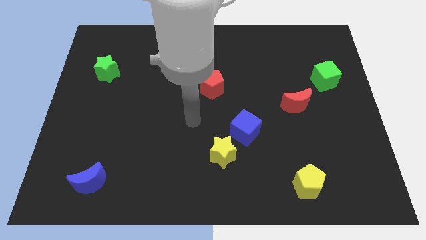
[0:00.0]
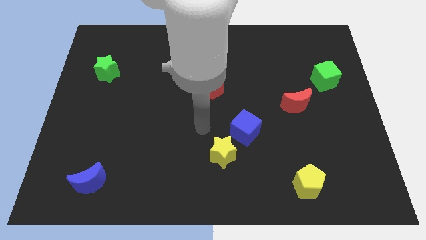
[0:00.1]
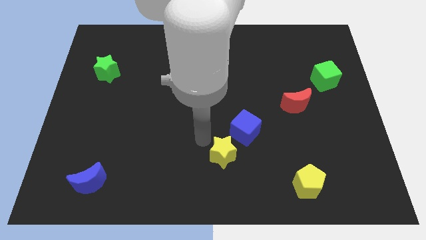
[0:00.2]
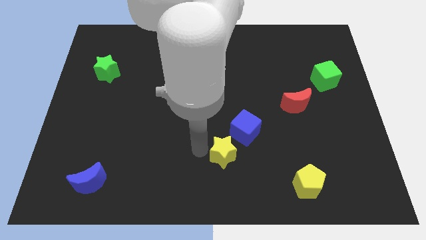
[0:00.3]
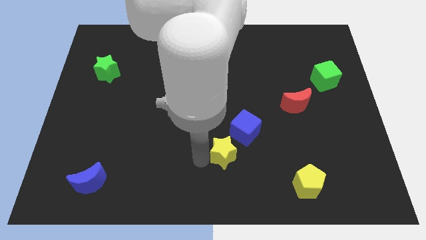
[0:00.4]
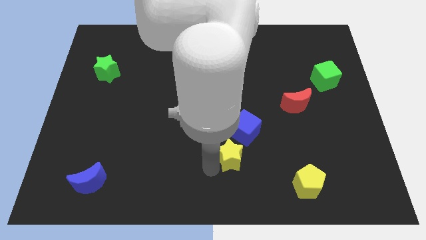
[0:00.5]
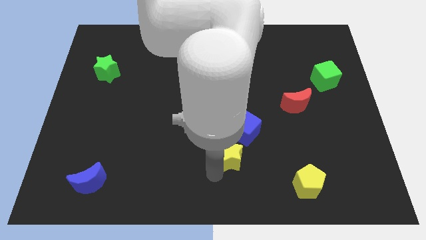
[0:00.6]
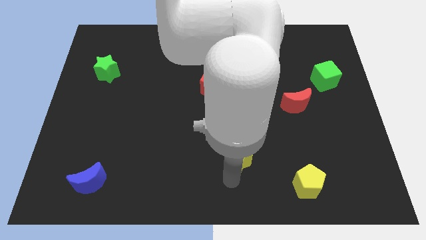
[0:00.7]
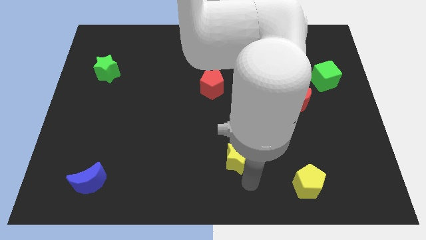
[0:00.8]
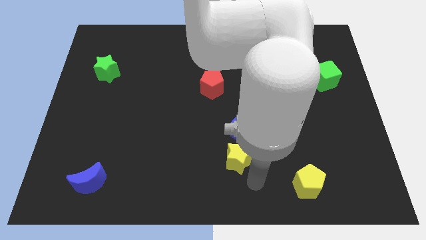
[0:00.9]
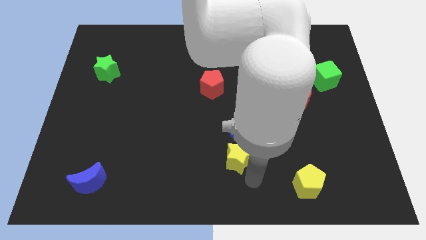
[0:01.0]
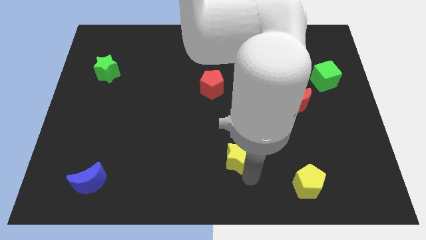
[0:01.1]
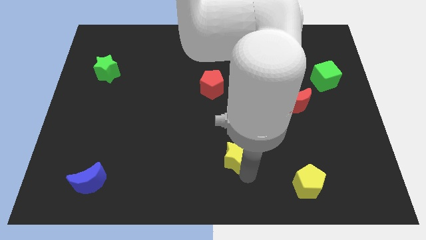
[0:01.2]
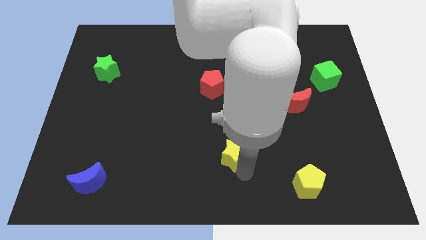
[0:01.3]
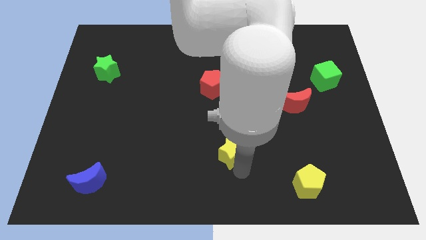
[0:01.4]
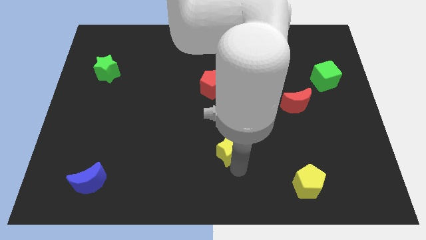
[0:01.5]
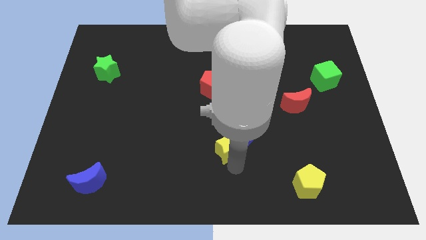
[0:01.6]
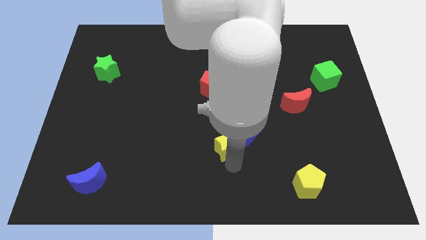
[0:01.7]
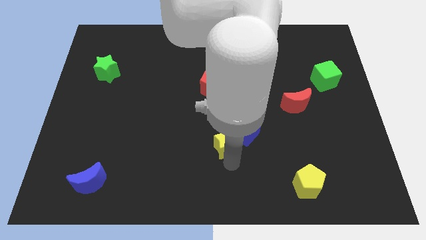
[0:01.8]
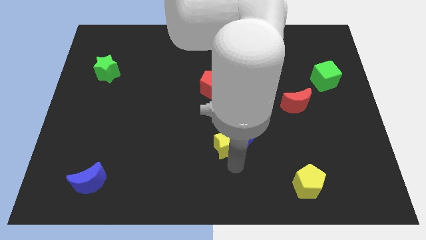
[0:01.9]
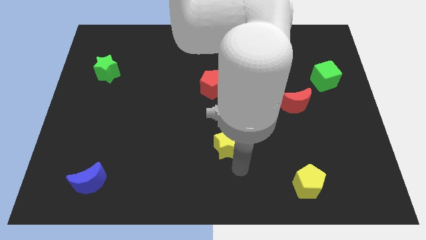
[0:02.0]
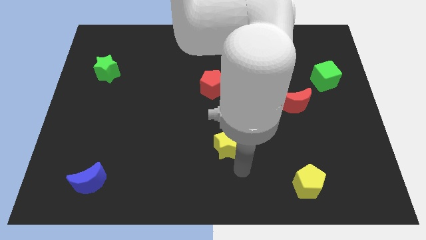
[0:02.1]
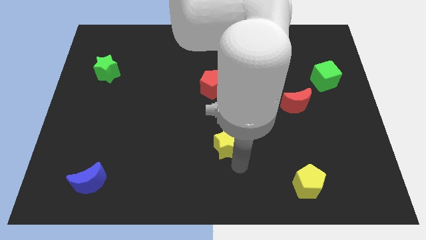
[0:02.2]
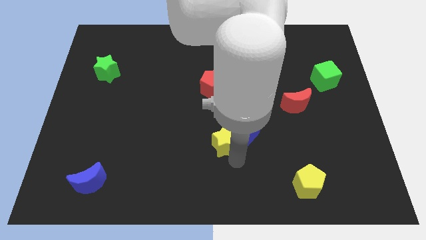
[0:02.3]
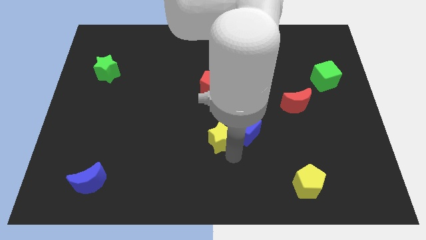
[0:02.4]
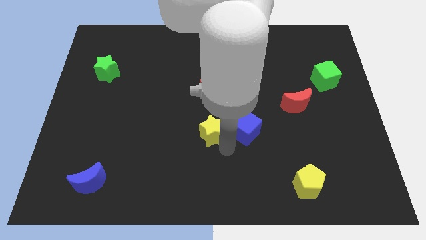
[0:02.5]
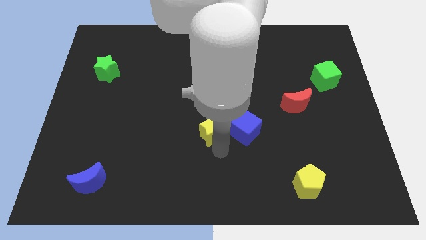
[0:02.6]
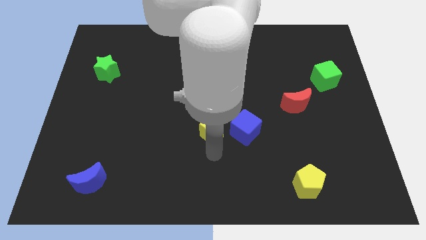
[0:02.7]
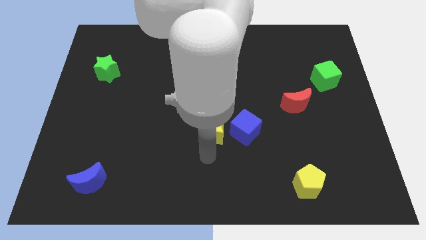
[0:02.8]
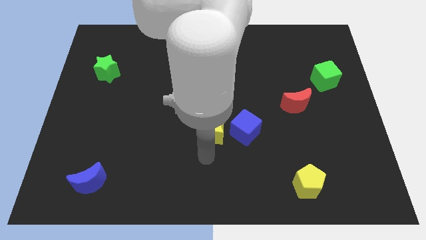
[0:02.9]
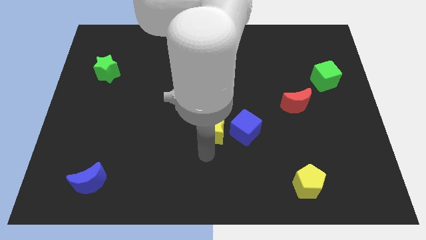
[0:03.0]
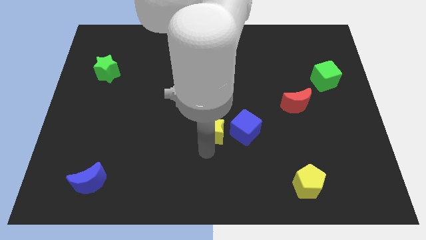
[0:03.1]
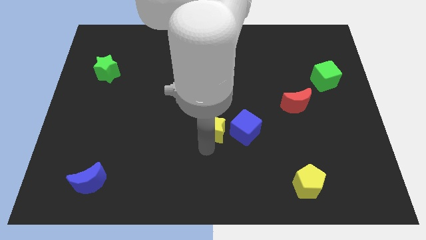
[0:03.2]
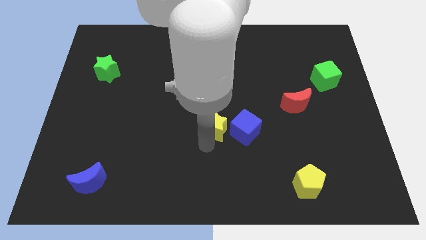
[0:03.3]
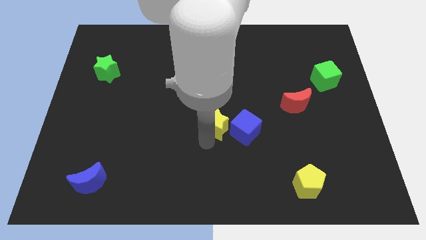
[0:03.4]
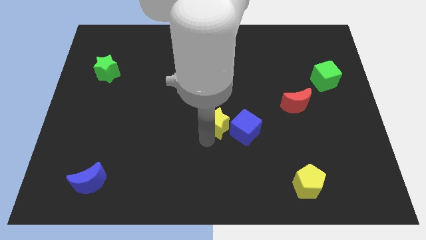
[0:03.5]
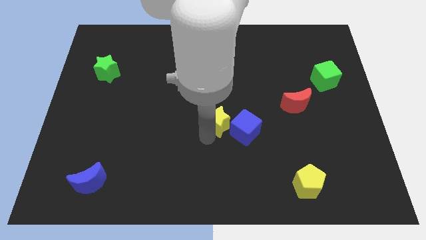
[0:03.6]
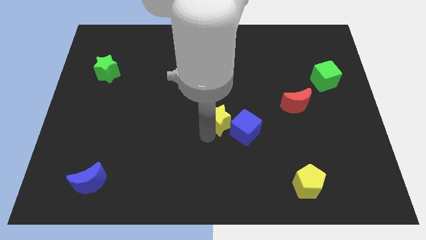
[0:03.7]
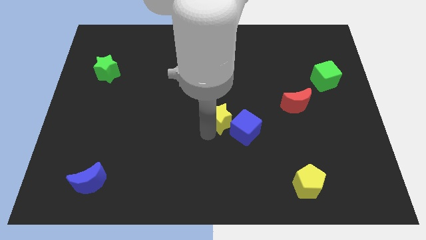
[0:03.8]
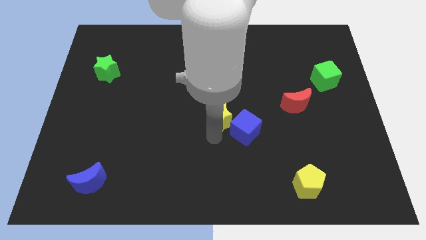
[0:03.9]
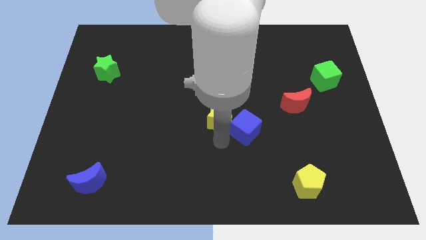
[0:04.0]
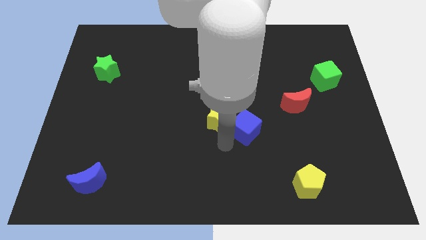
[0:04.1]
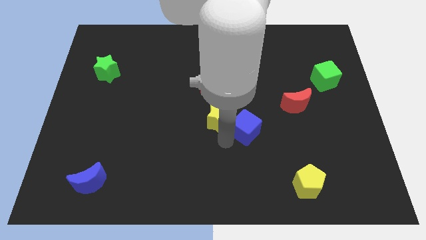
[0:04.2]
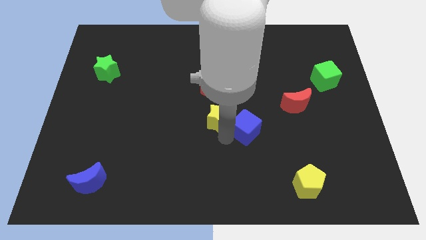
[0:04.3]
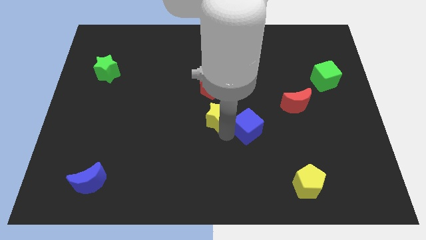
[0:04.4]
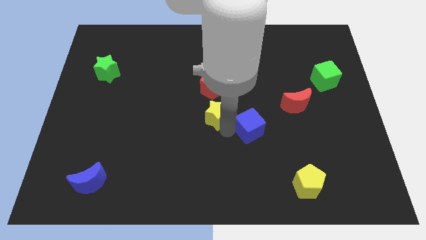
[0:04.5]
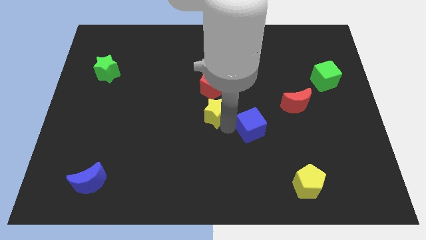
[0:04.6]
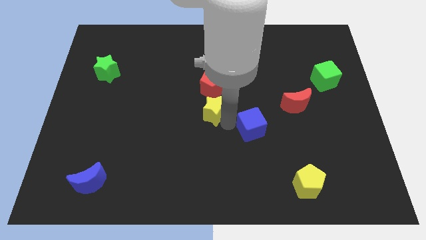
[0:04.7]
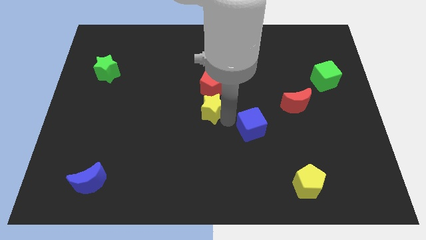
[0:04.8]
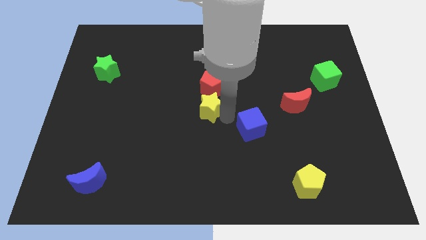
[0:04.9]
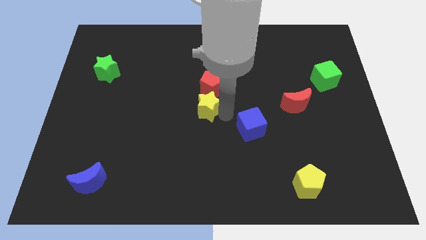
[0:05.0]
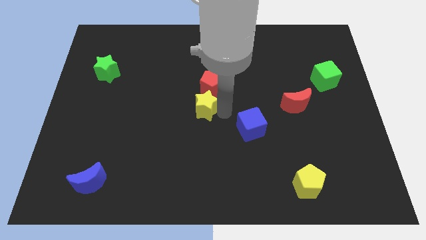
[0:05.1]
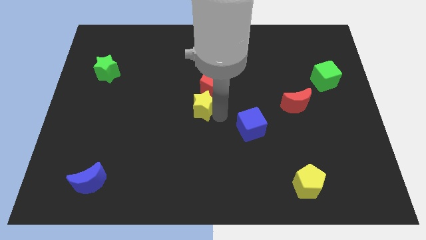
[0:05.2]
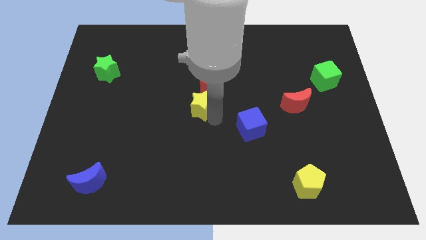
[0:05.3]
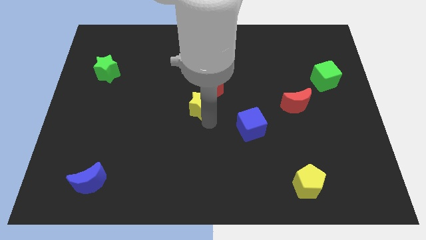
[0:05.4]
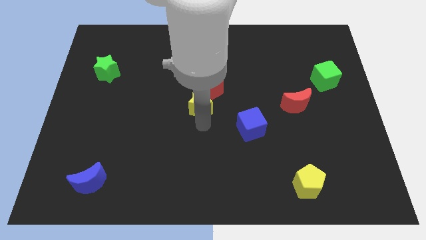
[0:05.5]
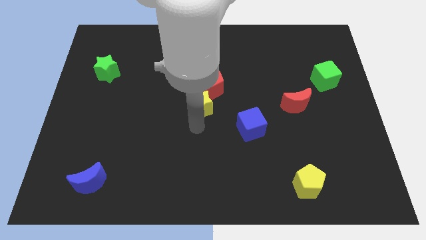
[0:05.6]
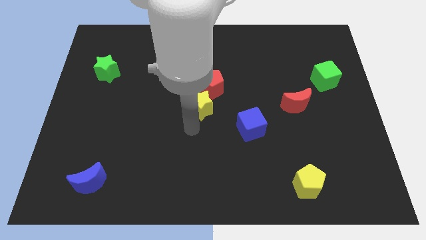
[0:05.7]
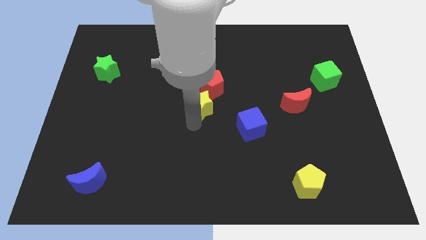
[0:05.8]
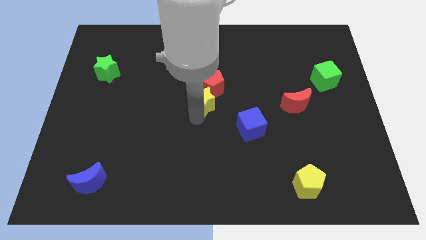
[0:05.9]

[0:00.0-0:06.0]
slide the yellow star close to the red pentagon

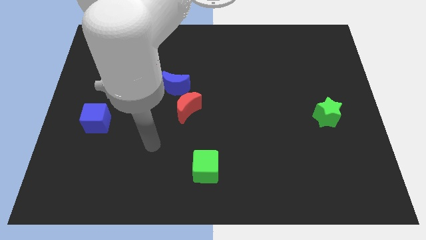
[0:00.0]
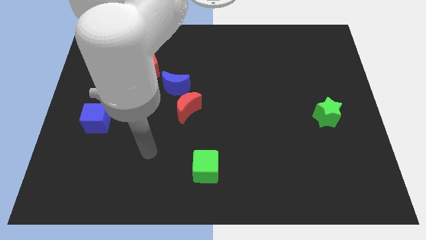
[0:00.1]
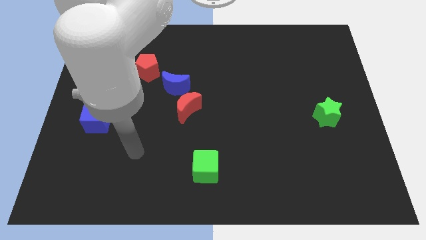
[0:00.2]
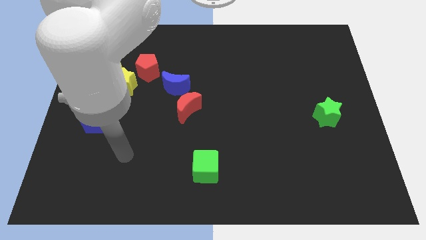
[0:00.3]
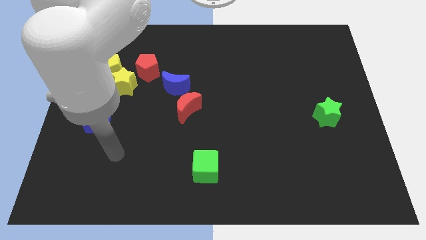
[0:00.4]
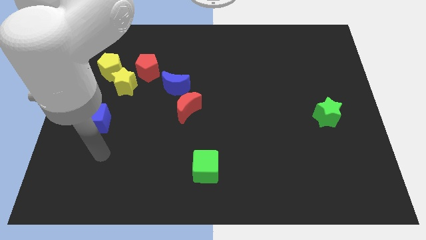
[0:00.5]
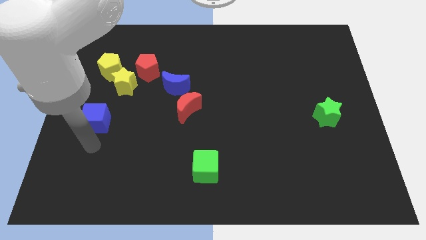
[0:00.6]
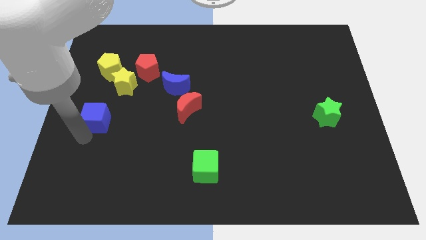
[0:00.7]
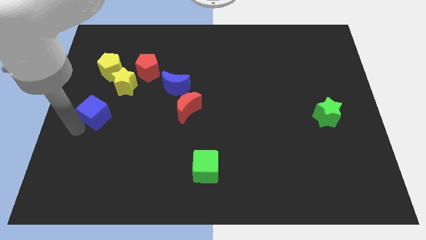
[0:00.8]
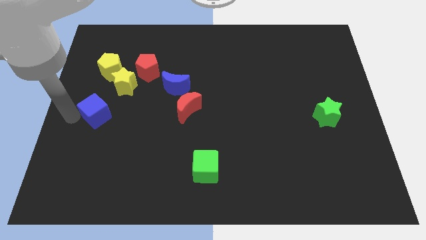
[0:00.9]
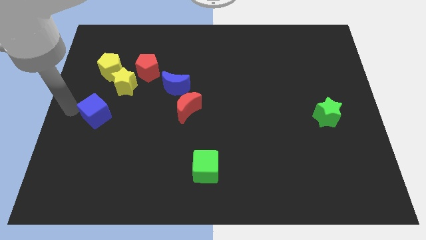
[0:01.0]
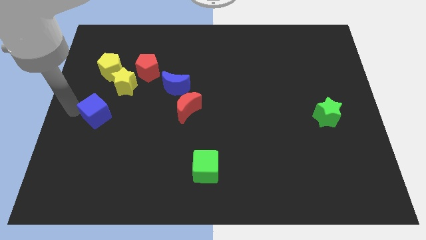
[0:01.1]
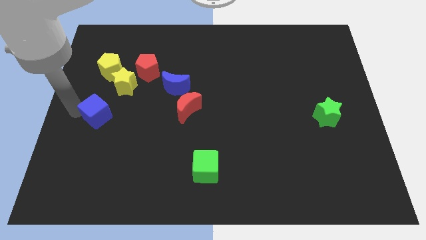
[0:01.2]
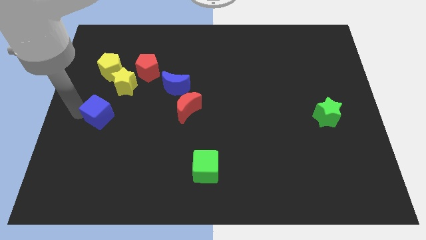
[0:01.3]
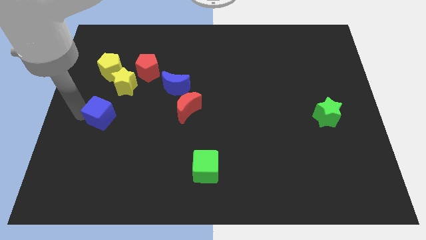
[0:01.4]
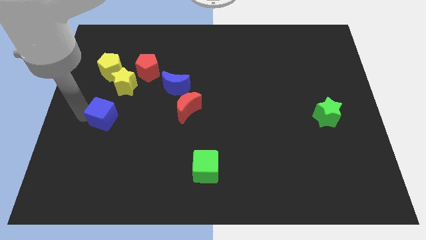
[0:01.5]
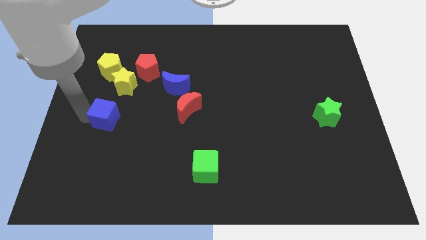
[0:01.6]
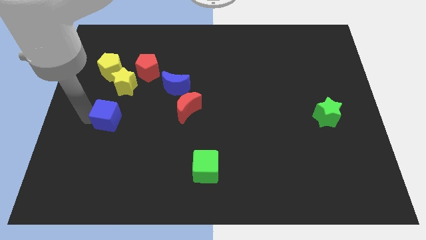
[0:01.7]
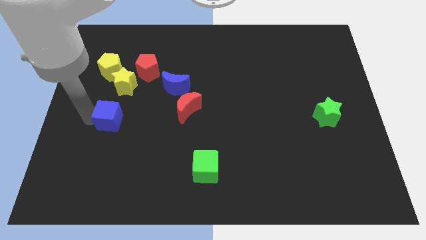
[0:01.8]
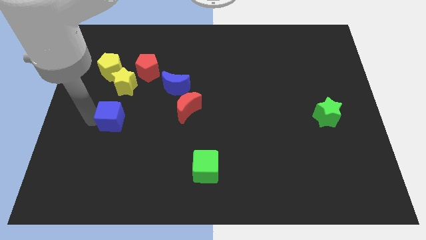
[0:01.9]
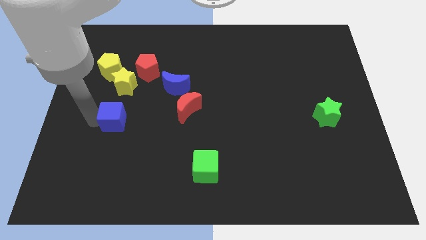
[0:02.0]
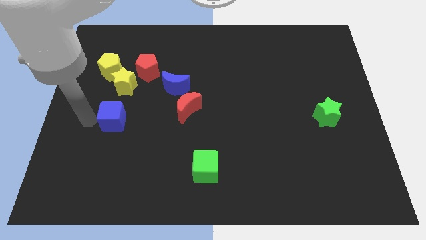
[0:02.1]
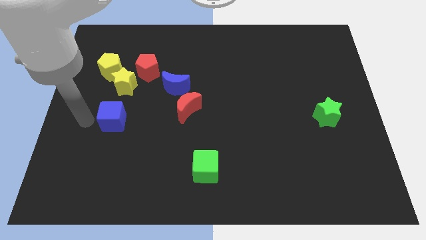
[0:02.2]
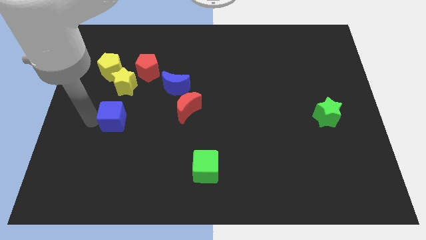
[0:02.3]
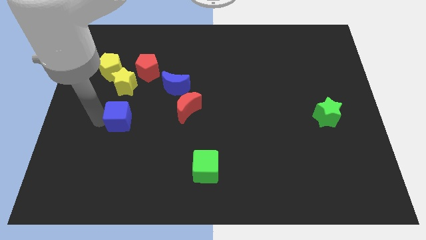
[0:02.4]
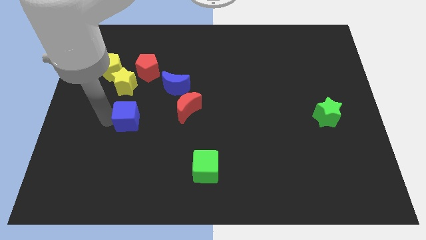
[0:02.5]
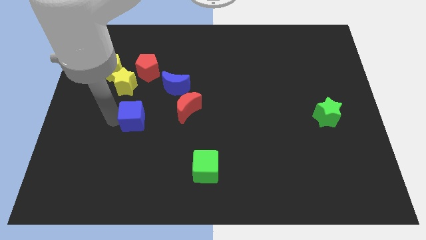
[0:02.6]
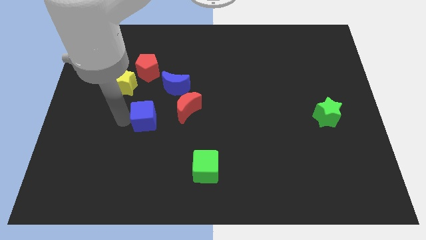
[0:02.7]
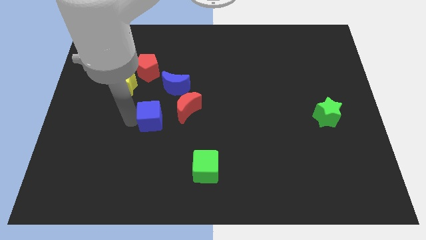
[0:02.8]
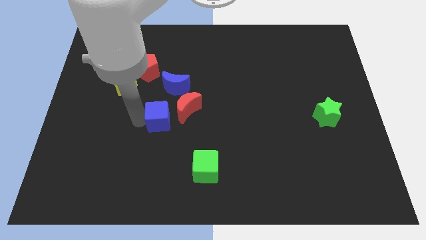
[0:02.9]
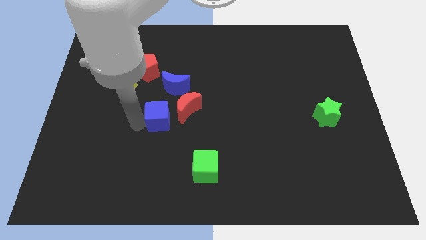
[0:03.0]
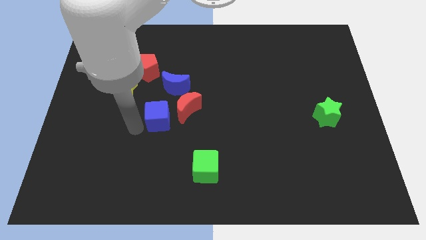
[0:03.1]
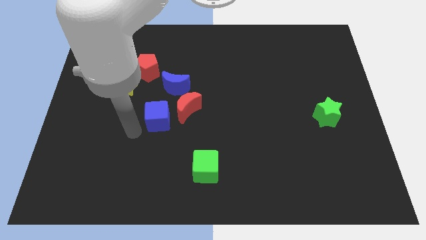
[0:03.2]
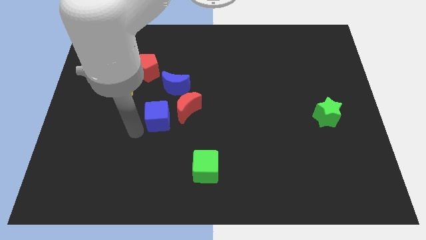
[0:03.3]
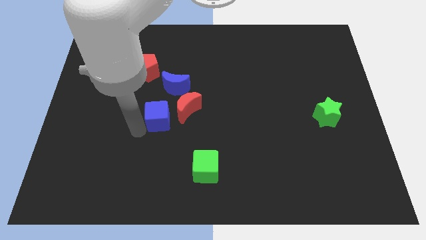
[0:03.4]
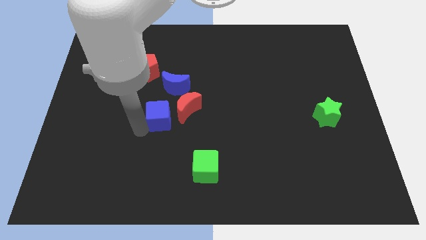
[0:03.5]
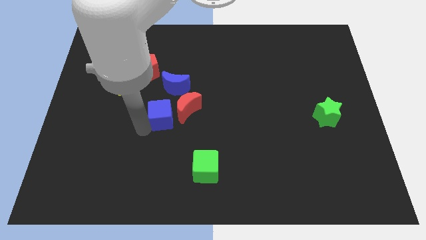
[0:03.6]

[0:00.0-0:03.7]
move the blue cube next to the red moon
